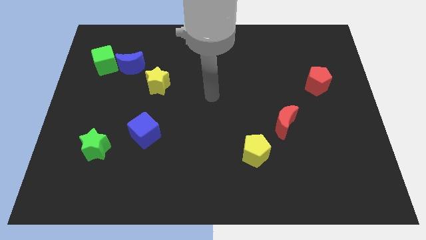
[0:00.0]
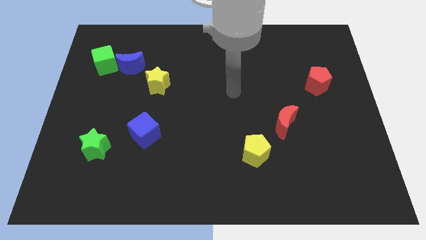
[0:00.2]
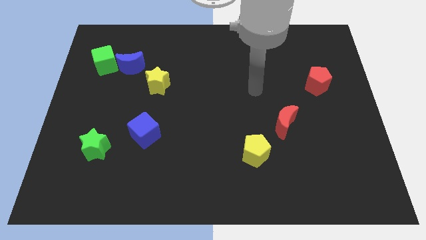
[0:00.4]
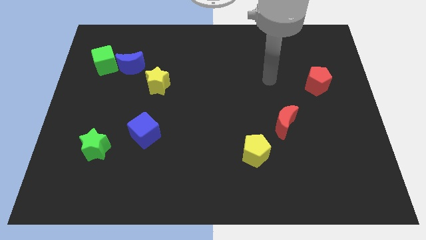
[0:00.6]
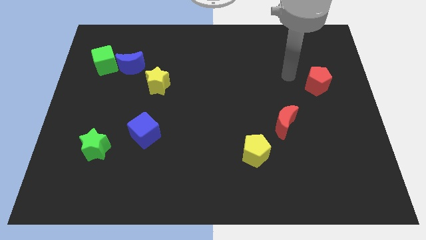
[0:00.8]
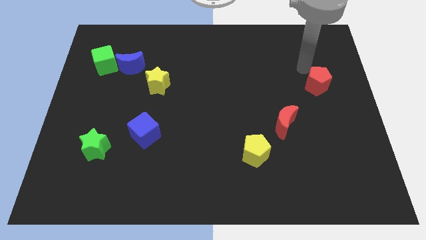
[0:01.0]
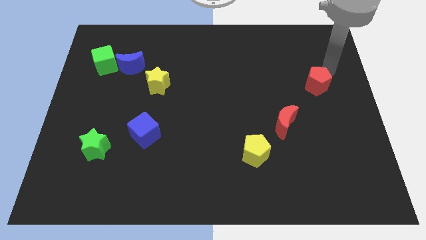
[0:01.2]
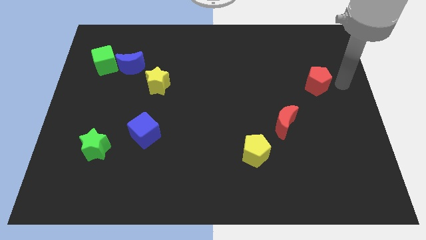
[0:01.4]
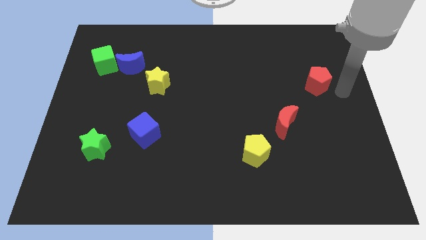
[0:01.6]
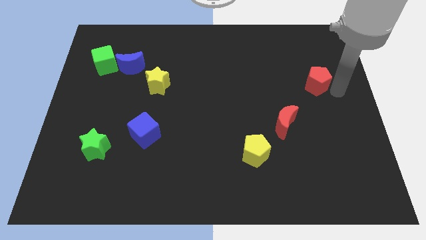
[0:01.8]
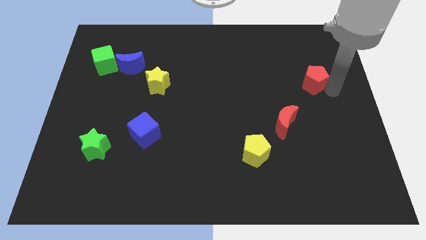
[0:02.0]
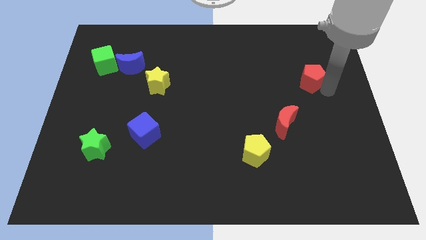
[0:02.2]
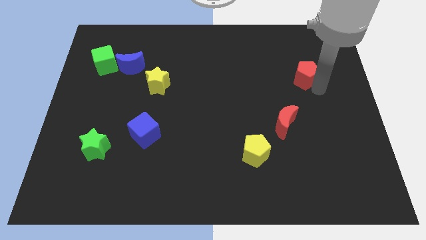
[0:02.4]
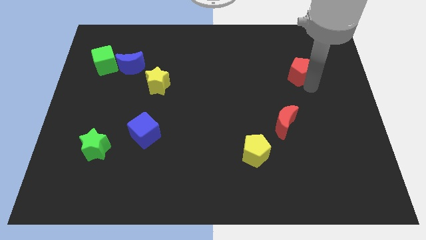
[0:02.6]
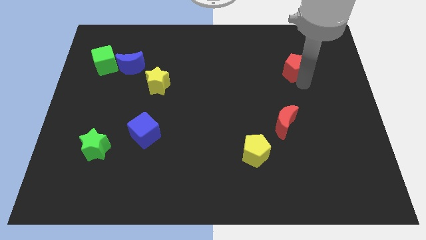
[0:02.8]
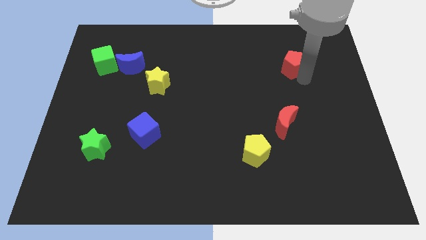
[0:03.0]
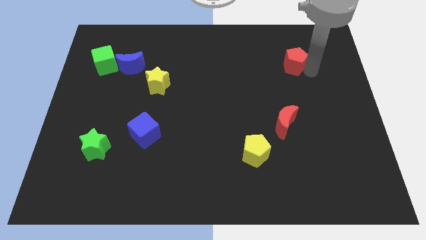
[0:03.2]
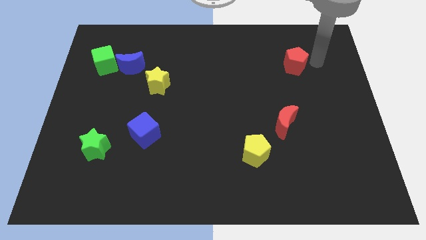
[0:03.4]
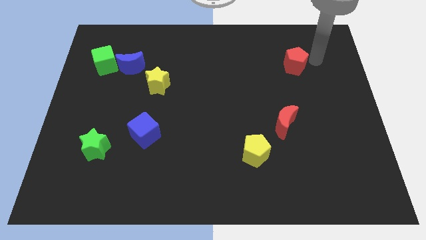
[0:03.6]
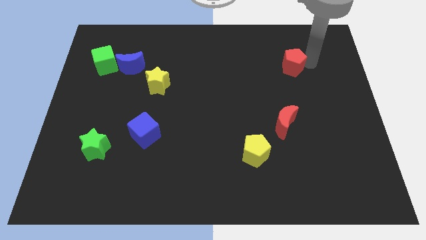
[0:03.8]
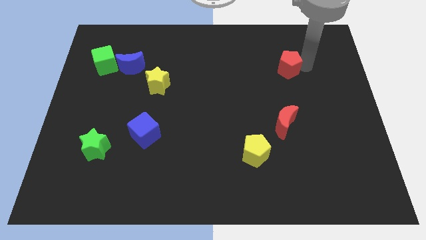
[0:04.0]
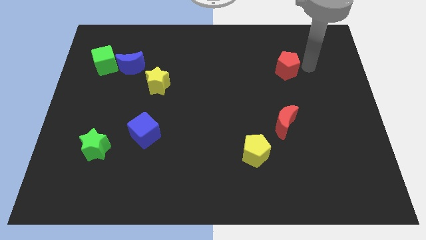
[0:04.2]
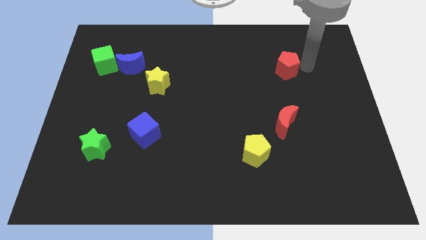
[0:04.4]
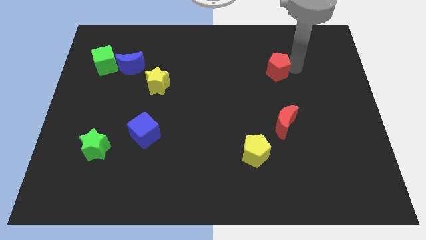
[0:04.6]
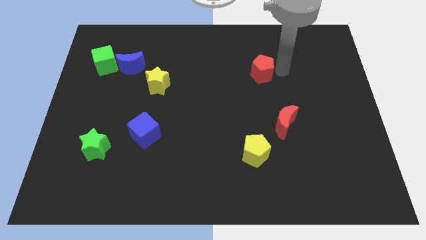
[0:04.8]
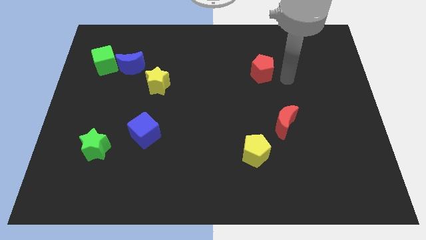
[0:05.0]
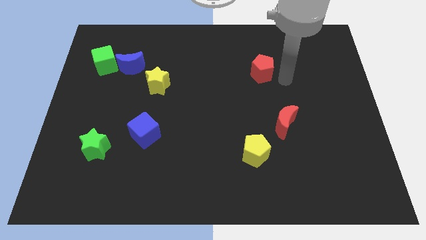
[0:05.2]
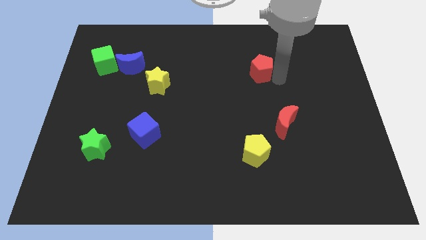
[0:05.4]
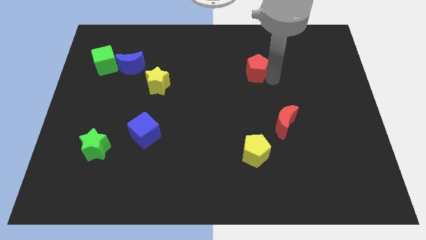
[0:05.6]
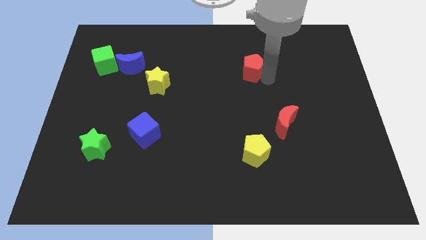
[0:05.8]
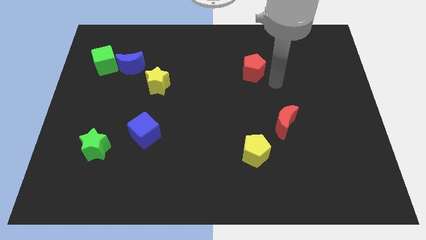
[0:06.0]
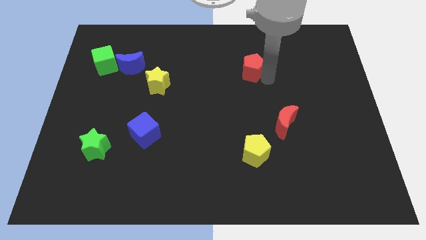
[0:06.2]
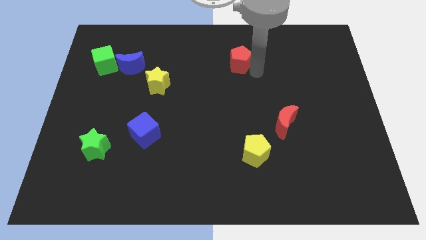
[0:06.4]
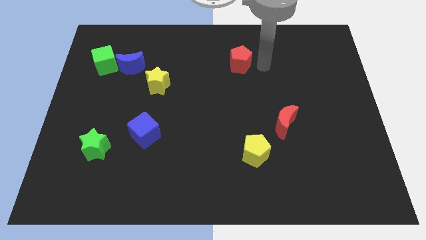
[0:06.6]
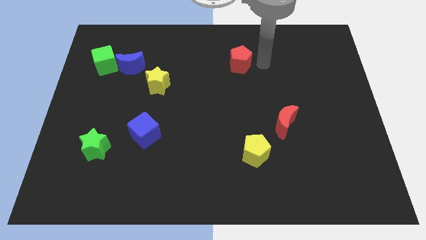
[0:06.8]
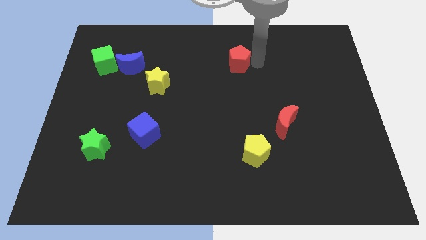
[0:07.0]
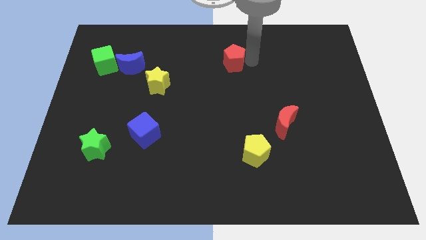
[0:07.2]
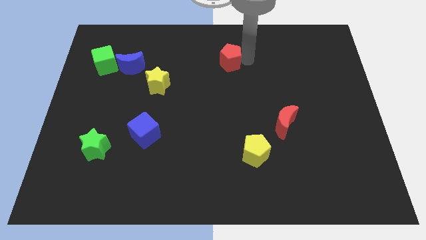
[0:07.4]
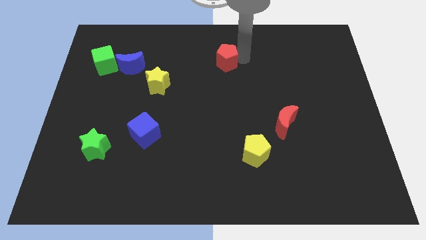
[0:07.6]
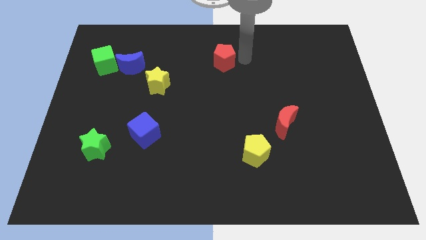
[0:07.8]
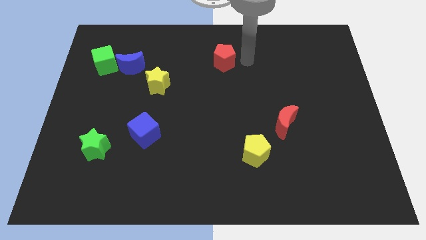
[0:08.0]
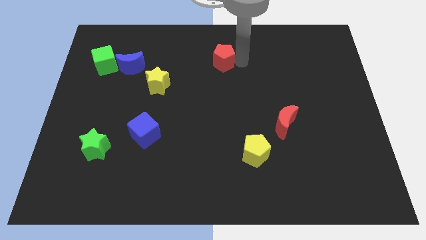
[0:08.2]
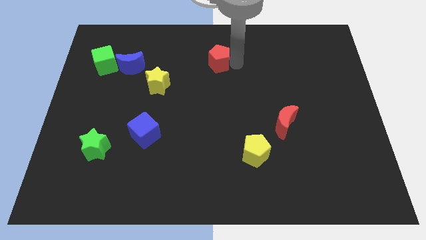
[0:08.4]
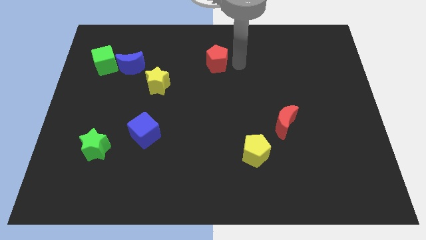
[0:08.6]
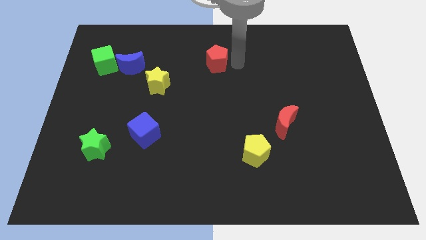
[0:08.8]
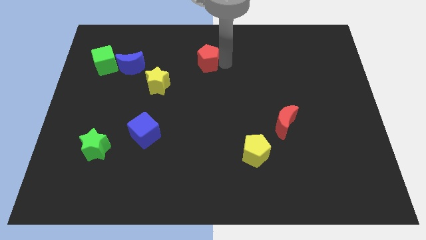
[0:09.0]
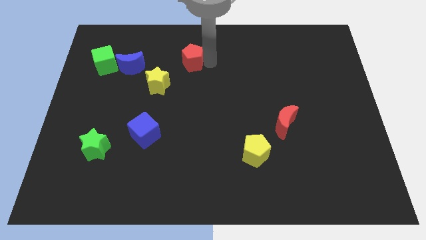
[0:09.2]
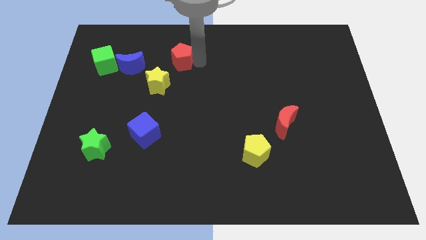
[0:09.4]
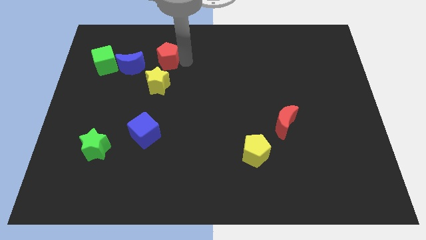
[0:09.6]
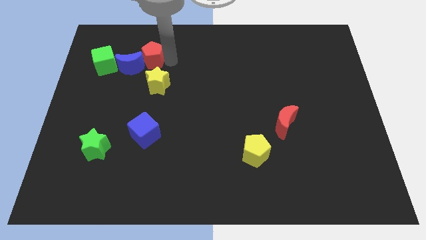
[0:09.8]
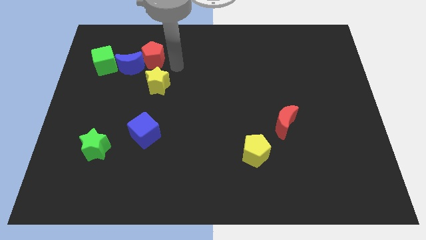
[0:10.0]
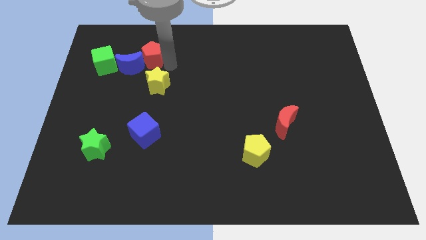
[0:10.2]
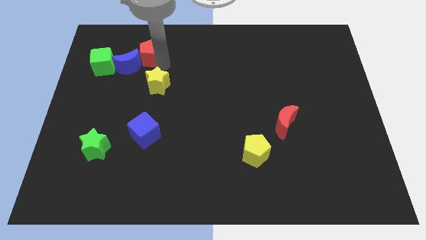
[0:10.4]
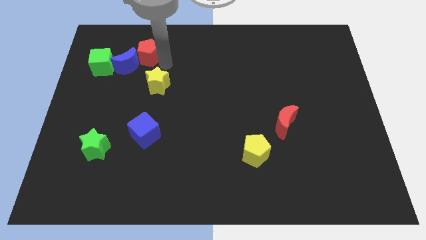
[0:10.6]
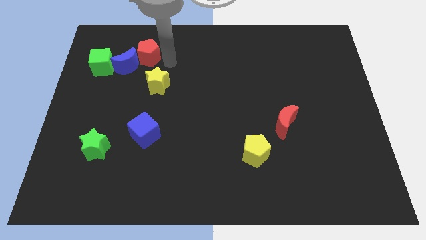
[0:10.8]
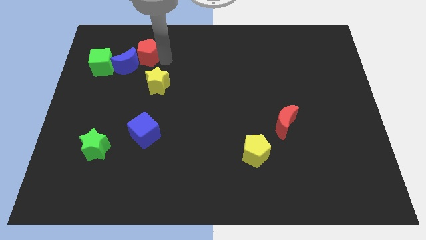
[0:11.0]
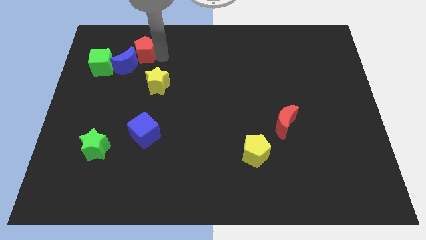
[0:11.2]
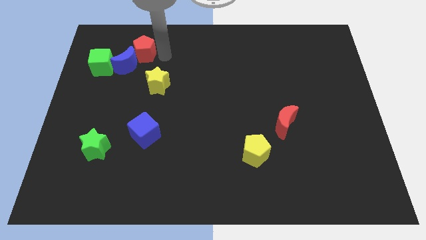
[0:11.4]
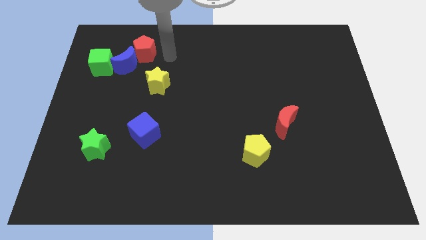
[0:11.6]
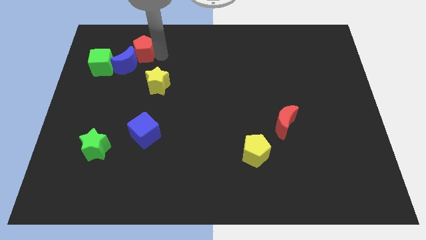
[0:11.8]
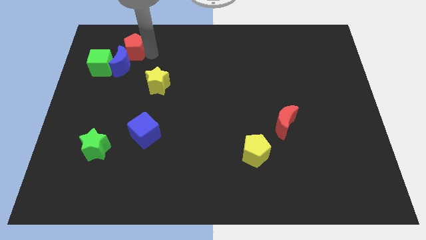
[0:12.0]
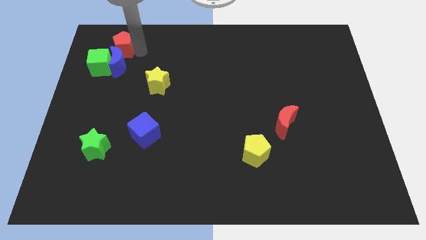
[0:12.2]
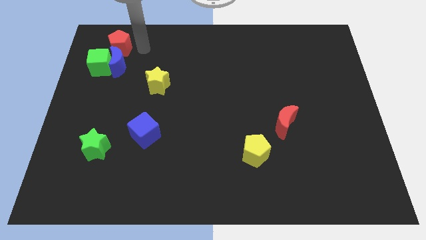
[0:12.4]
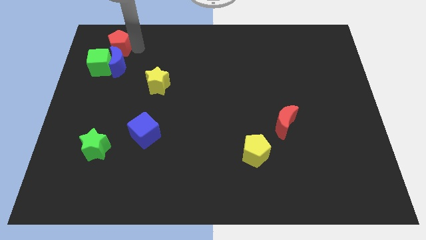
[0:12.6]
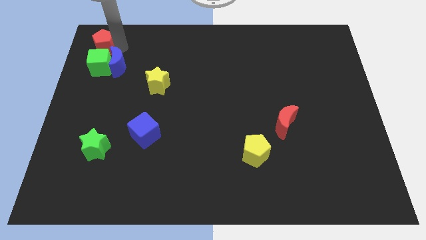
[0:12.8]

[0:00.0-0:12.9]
put the red pentagon to the top left corner

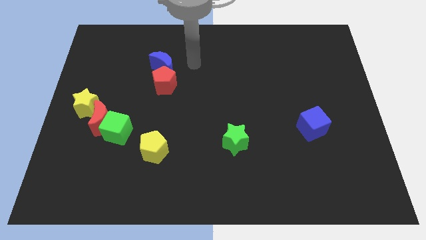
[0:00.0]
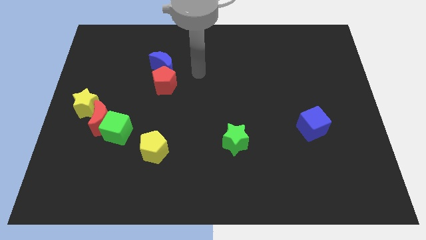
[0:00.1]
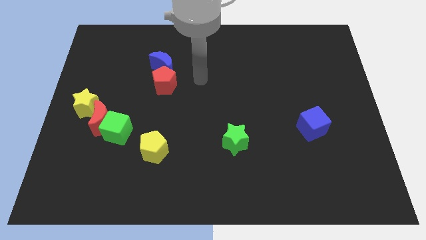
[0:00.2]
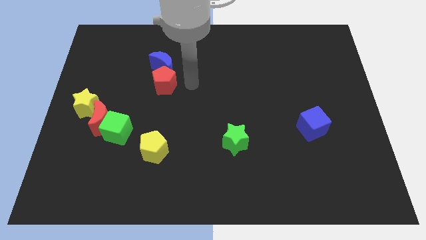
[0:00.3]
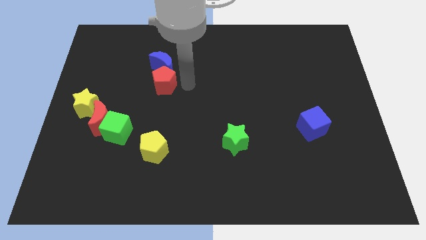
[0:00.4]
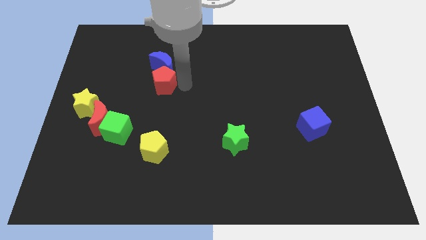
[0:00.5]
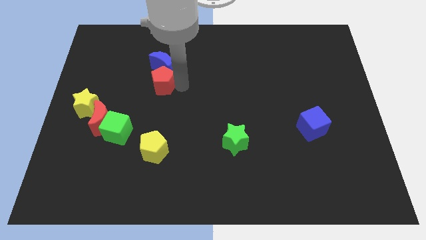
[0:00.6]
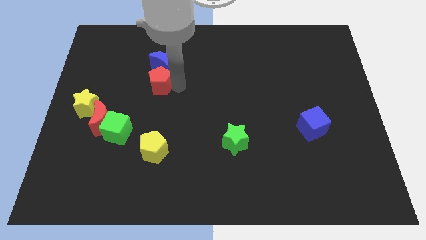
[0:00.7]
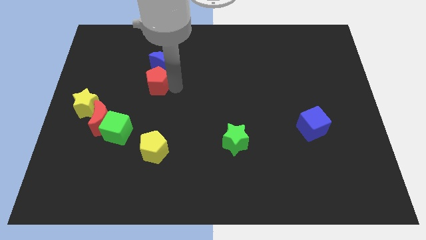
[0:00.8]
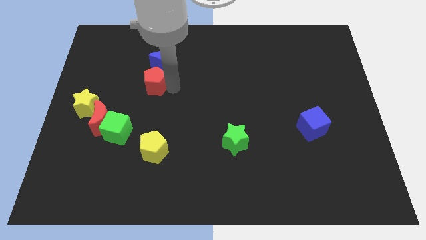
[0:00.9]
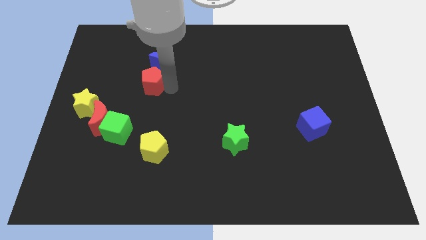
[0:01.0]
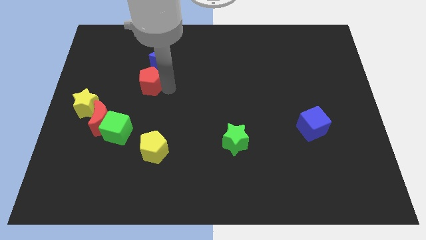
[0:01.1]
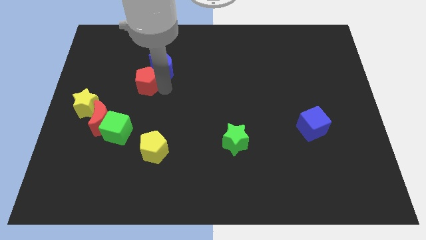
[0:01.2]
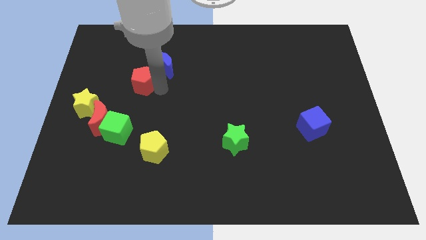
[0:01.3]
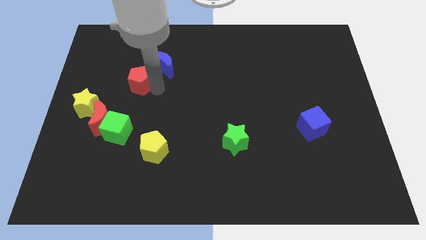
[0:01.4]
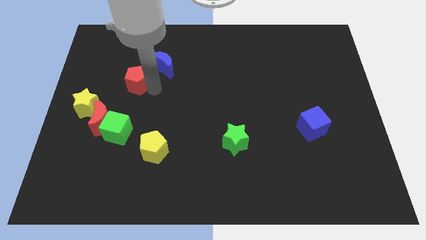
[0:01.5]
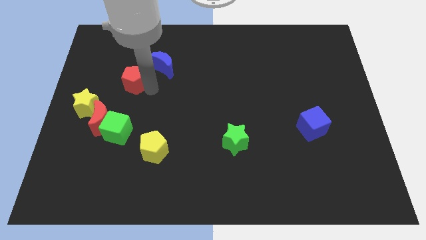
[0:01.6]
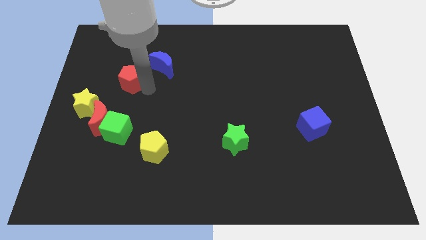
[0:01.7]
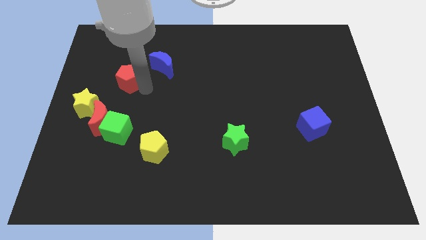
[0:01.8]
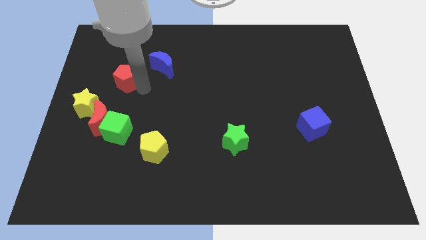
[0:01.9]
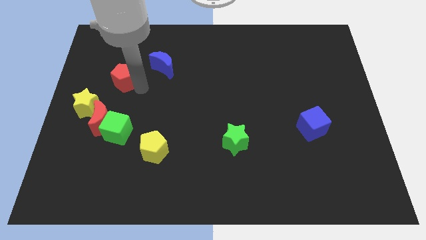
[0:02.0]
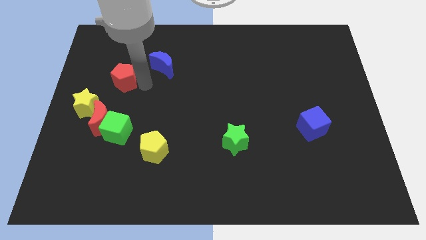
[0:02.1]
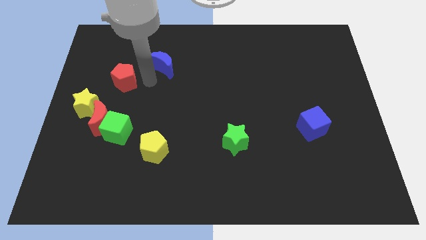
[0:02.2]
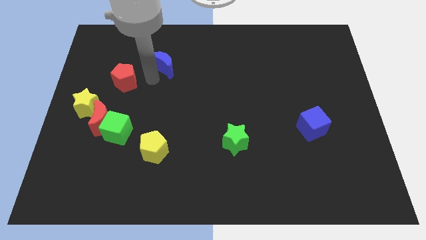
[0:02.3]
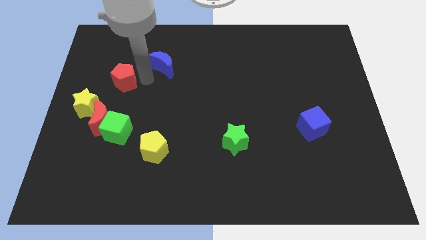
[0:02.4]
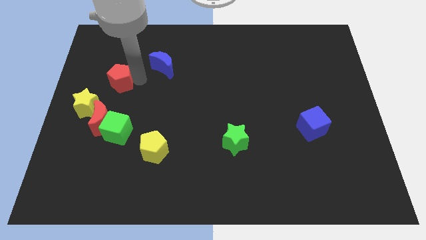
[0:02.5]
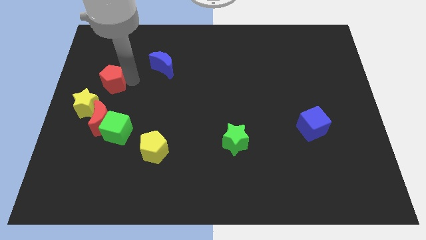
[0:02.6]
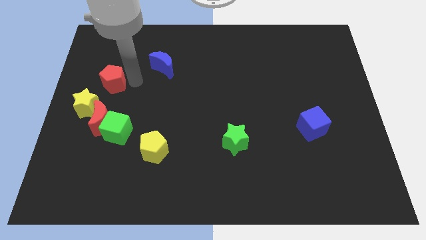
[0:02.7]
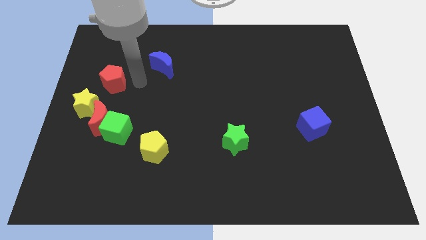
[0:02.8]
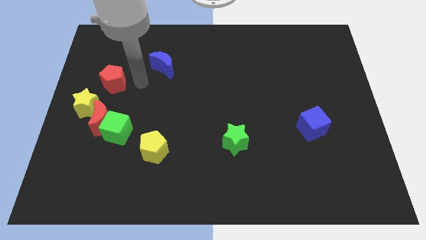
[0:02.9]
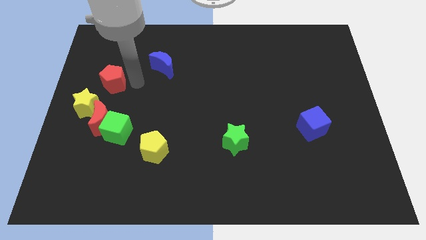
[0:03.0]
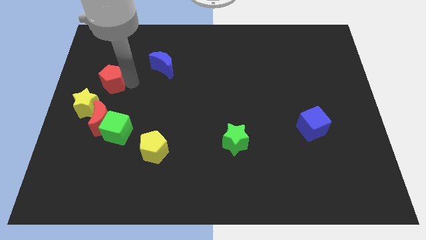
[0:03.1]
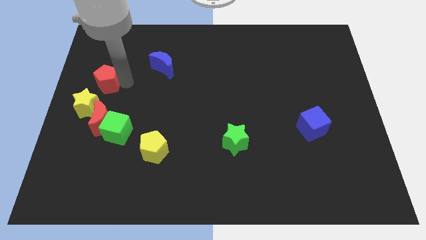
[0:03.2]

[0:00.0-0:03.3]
put the red pentagon to the left side
